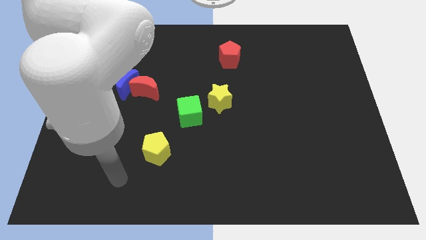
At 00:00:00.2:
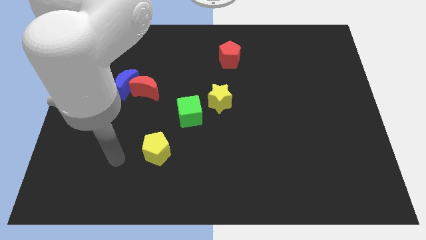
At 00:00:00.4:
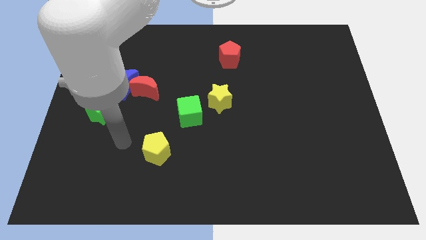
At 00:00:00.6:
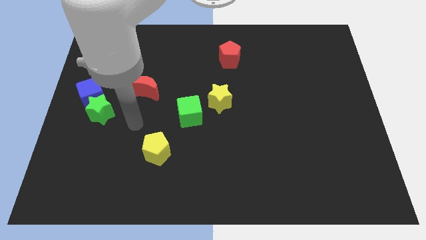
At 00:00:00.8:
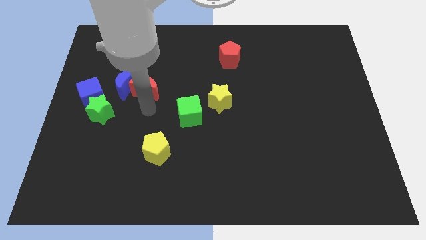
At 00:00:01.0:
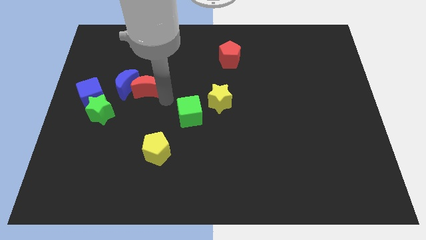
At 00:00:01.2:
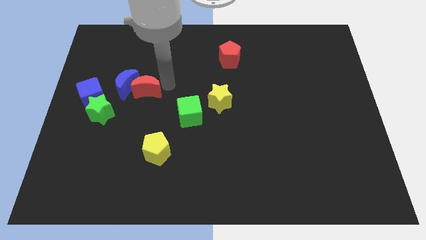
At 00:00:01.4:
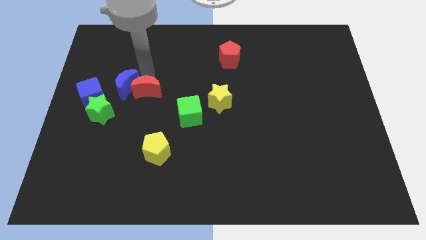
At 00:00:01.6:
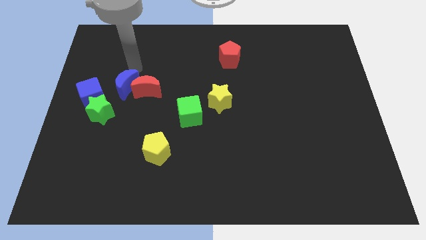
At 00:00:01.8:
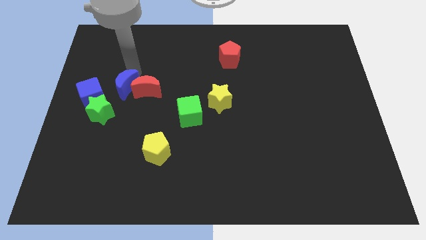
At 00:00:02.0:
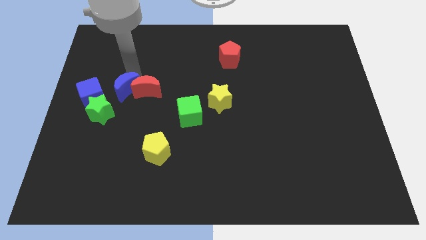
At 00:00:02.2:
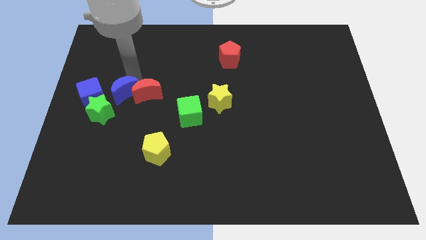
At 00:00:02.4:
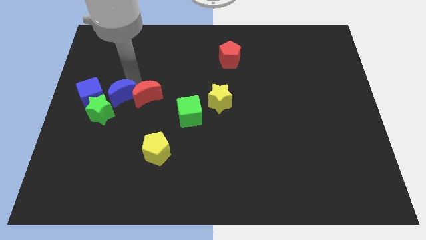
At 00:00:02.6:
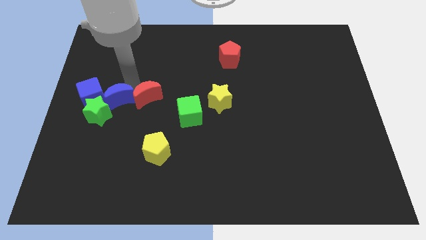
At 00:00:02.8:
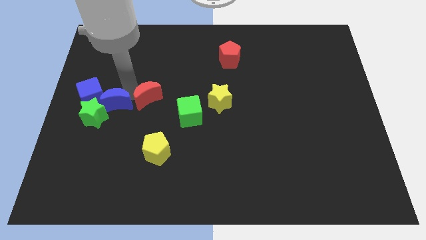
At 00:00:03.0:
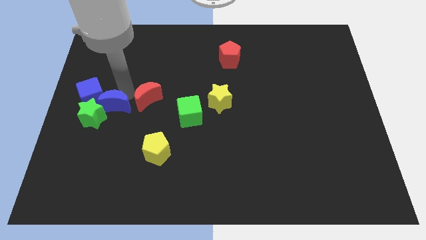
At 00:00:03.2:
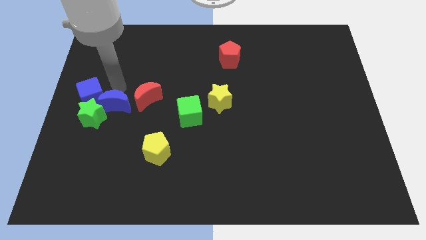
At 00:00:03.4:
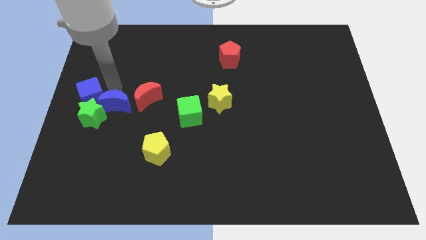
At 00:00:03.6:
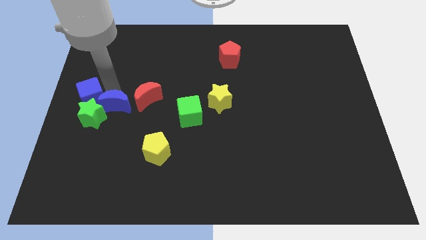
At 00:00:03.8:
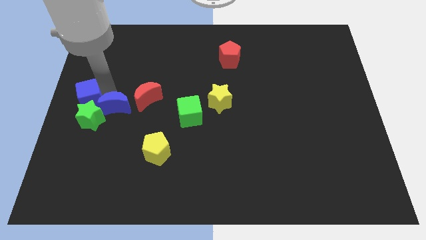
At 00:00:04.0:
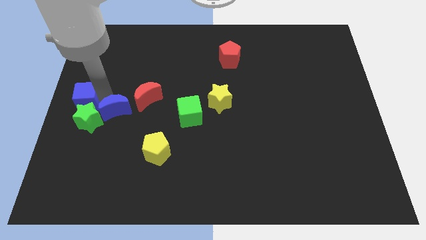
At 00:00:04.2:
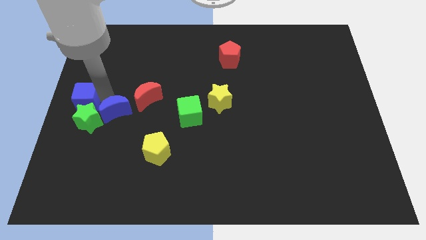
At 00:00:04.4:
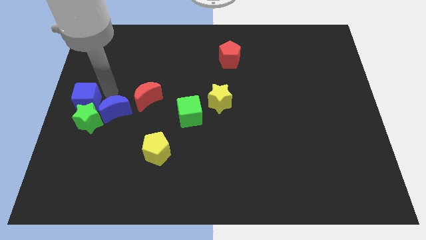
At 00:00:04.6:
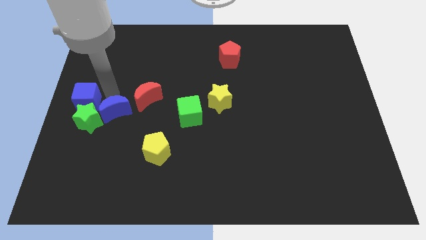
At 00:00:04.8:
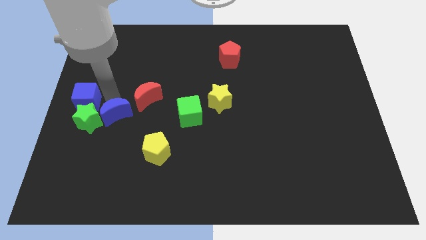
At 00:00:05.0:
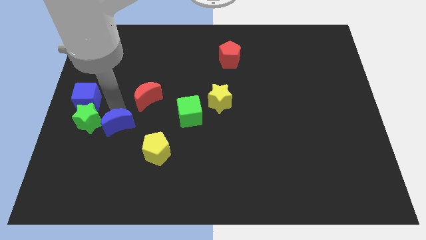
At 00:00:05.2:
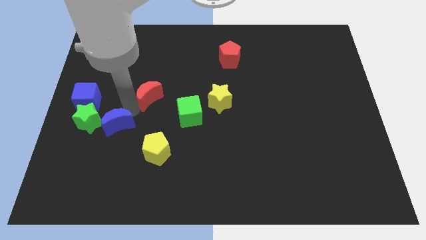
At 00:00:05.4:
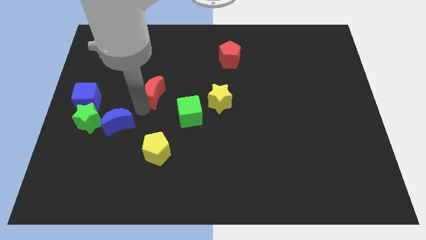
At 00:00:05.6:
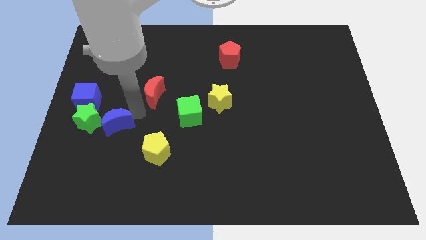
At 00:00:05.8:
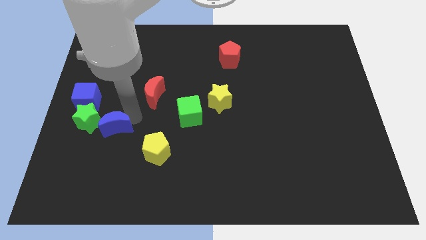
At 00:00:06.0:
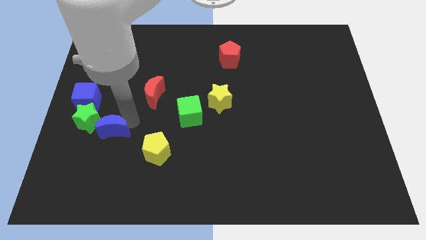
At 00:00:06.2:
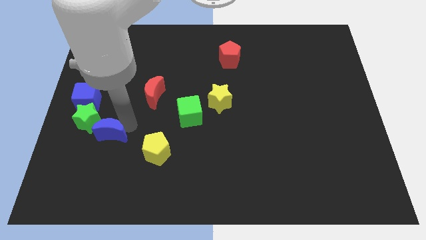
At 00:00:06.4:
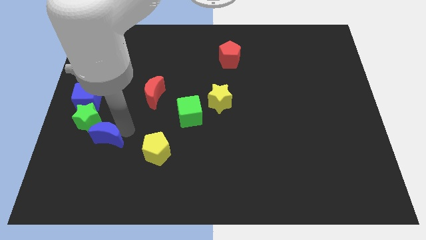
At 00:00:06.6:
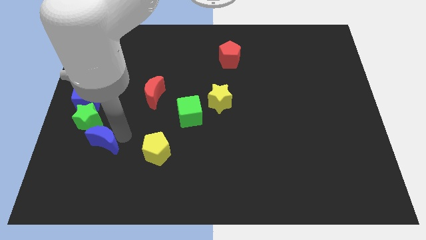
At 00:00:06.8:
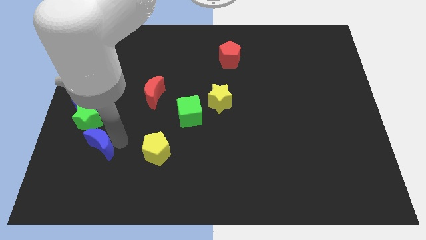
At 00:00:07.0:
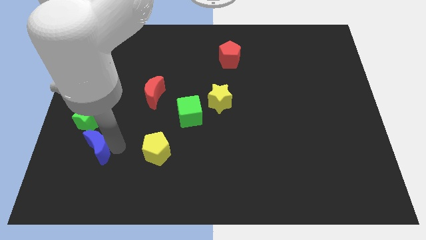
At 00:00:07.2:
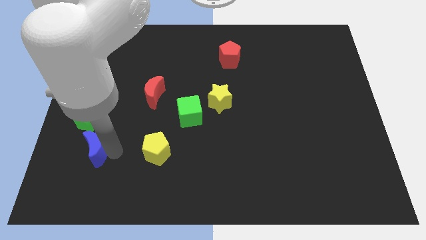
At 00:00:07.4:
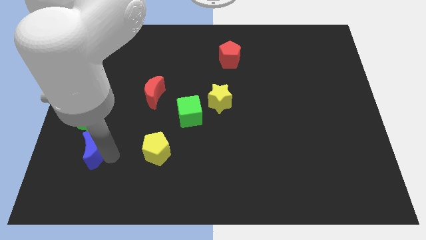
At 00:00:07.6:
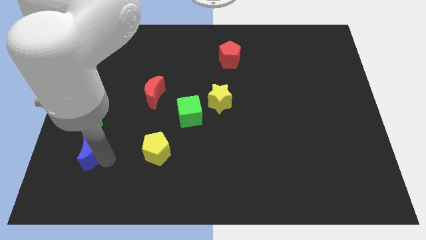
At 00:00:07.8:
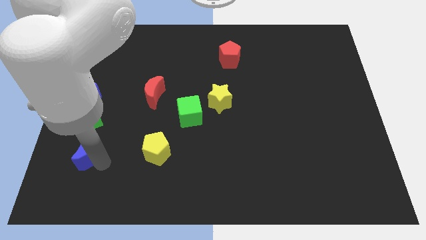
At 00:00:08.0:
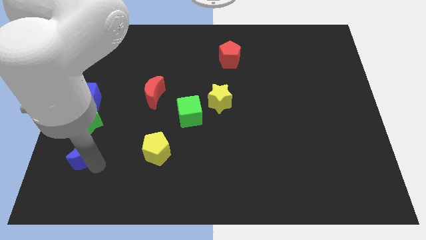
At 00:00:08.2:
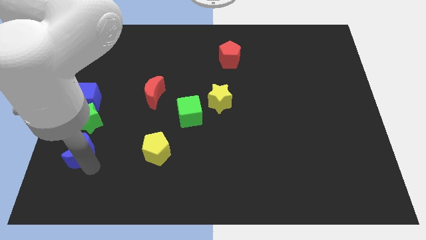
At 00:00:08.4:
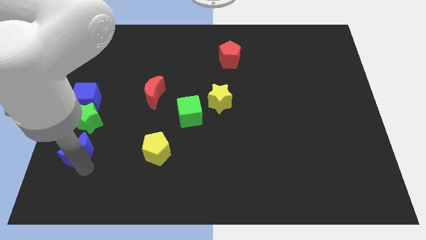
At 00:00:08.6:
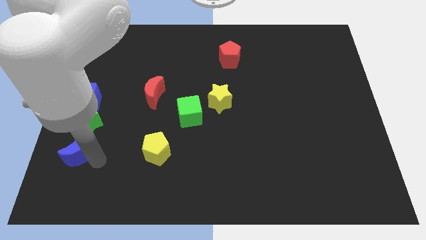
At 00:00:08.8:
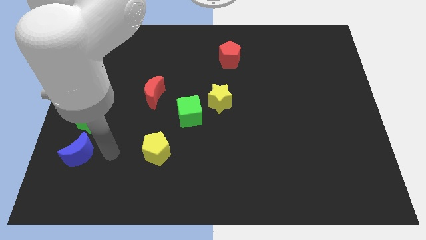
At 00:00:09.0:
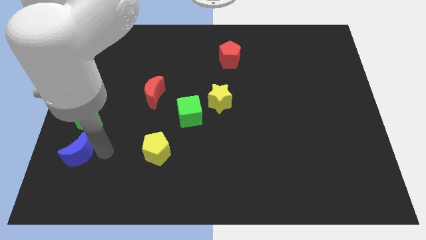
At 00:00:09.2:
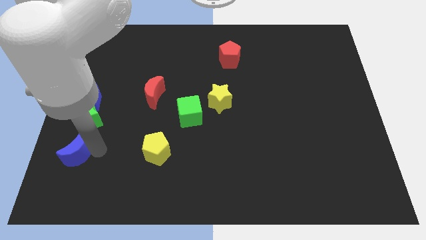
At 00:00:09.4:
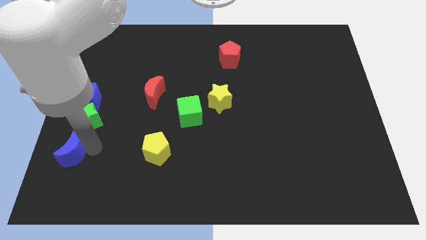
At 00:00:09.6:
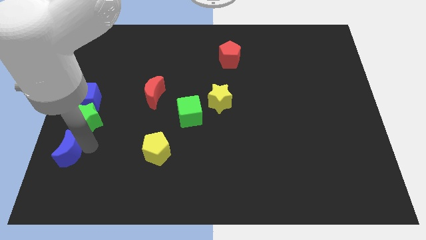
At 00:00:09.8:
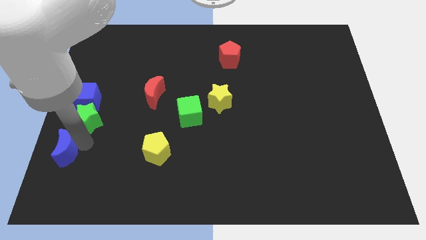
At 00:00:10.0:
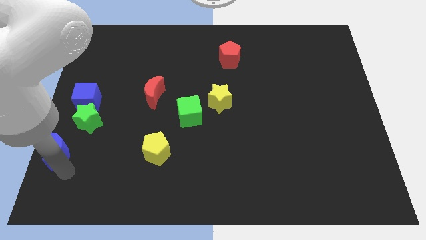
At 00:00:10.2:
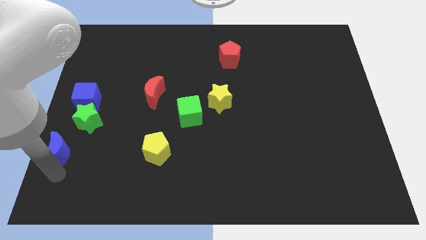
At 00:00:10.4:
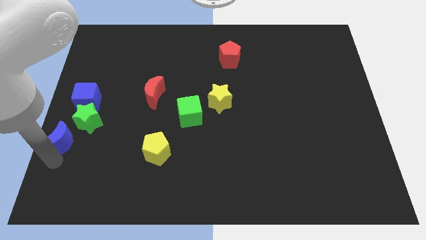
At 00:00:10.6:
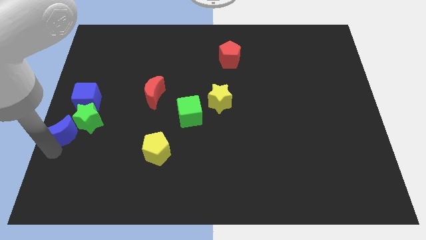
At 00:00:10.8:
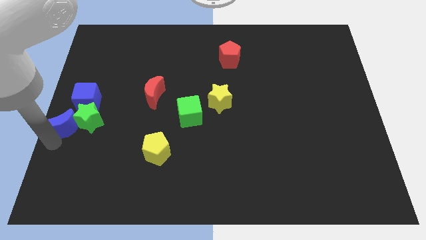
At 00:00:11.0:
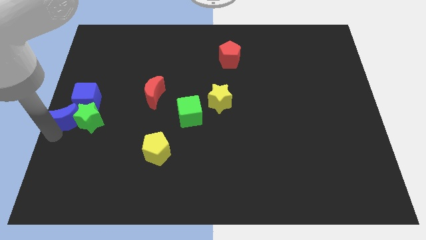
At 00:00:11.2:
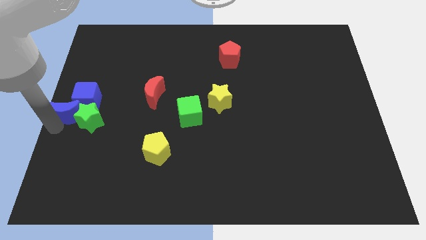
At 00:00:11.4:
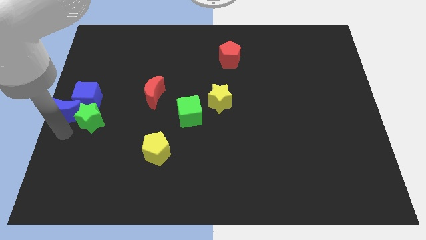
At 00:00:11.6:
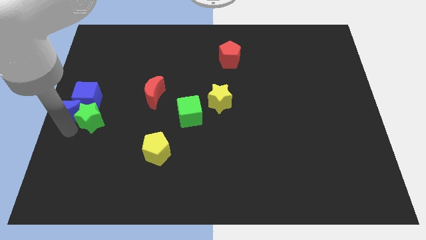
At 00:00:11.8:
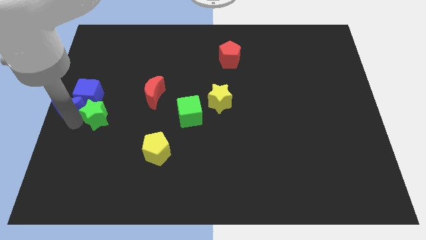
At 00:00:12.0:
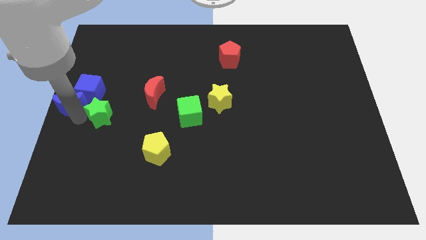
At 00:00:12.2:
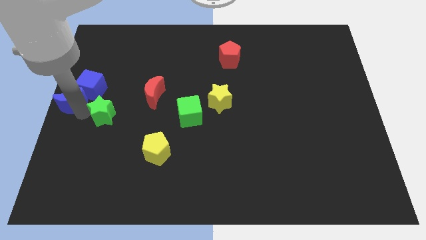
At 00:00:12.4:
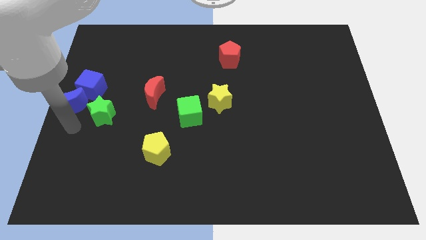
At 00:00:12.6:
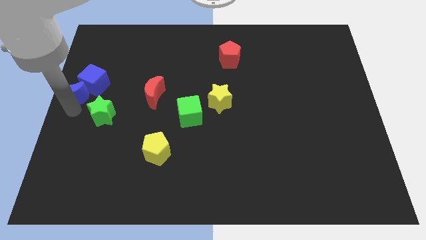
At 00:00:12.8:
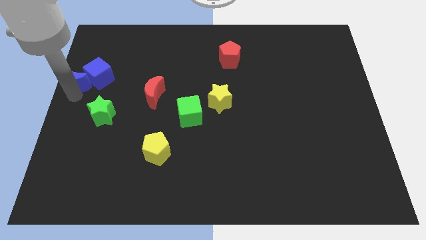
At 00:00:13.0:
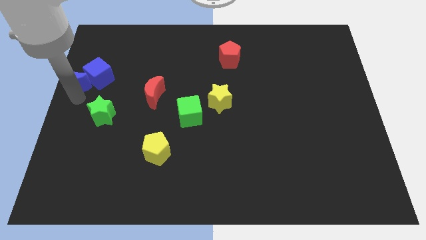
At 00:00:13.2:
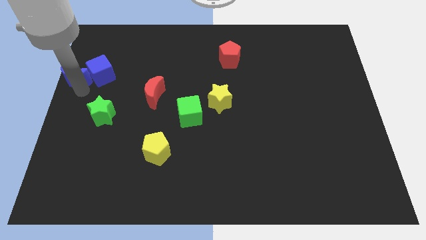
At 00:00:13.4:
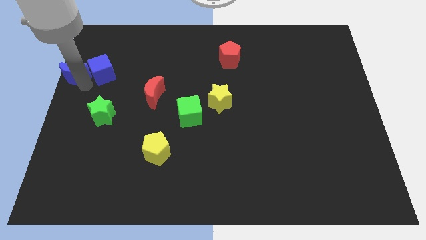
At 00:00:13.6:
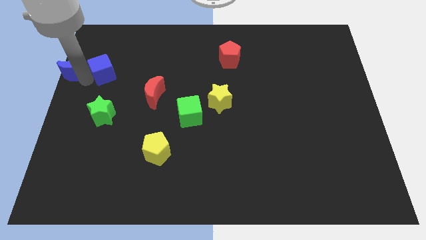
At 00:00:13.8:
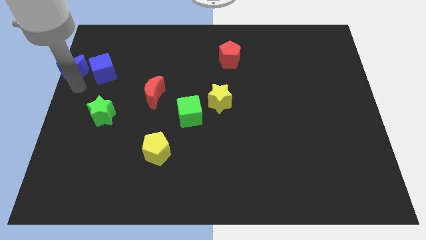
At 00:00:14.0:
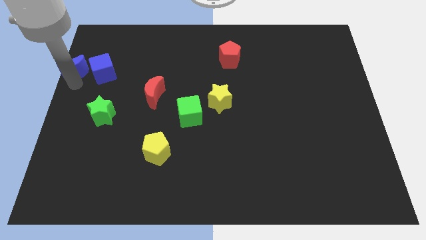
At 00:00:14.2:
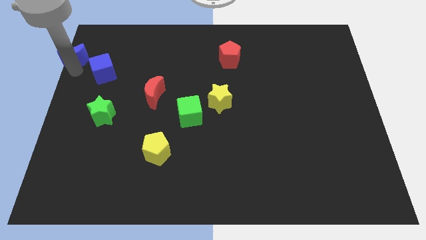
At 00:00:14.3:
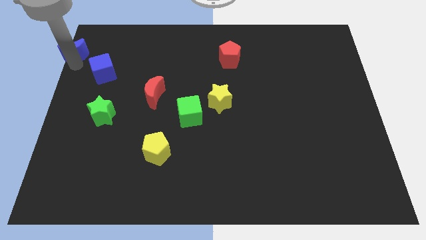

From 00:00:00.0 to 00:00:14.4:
move the blue moon to the top left
